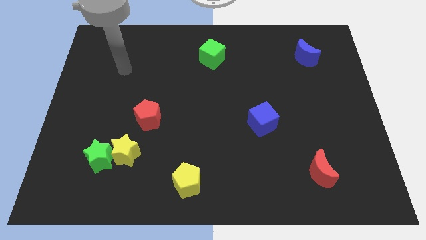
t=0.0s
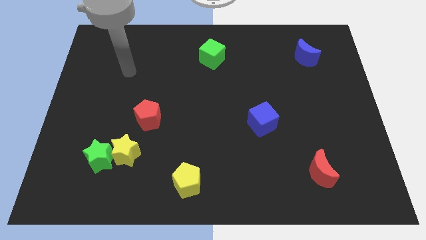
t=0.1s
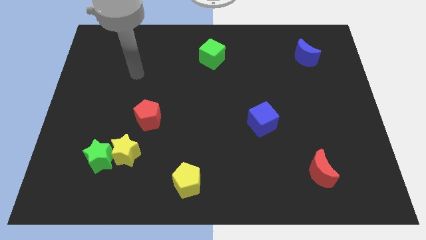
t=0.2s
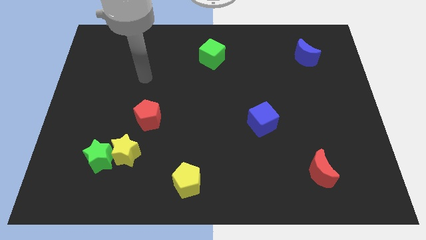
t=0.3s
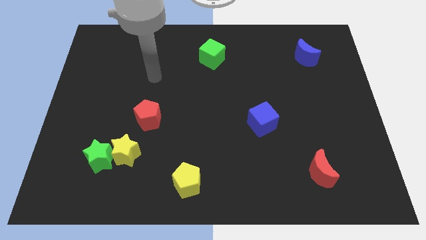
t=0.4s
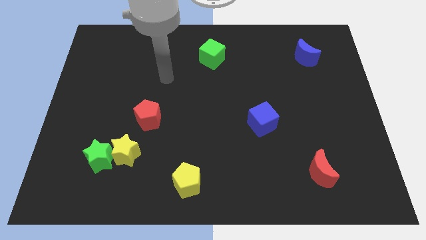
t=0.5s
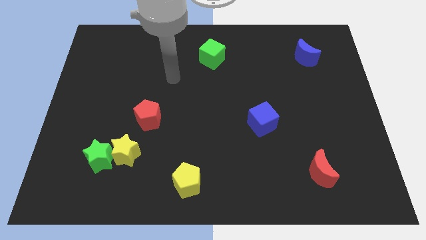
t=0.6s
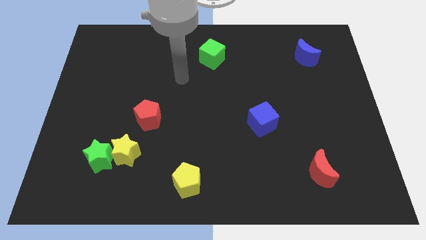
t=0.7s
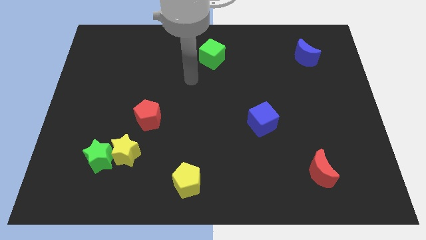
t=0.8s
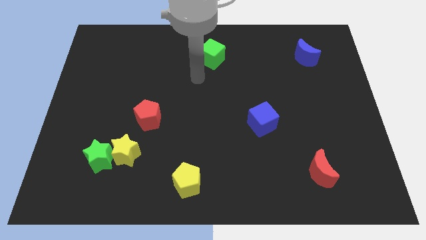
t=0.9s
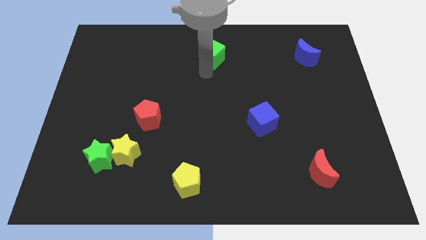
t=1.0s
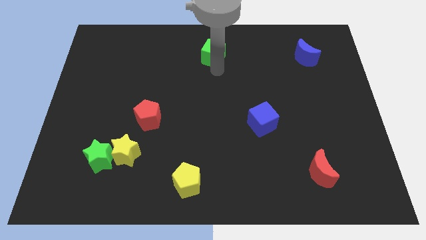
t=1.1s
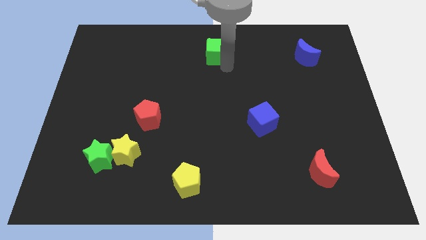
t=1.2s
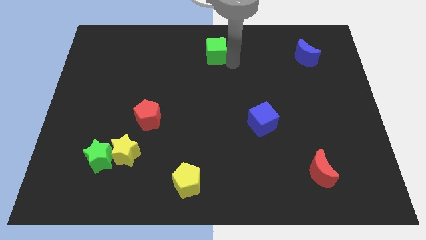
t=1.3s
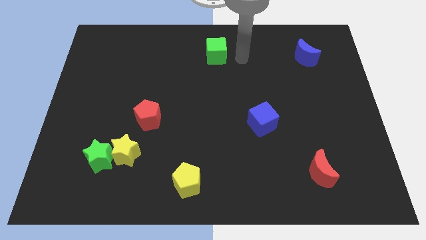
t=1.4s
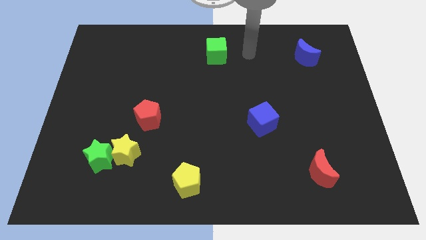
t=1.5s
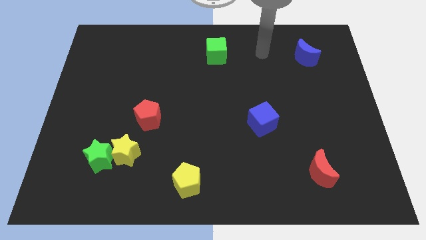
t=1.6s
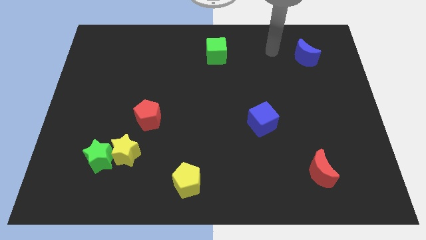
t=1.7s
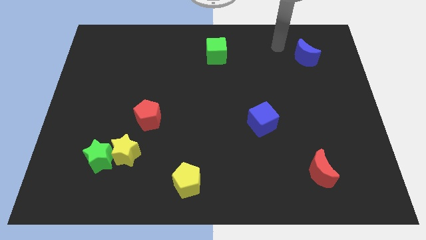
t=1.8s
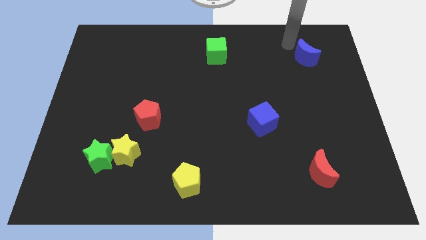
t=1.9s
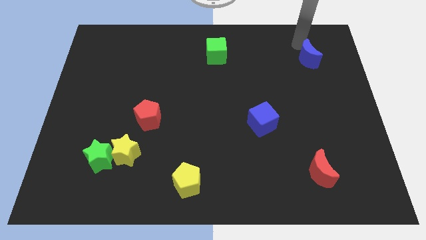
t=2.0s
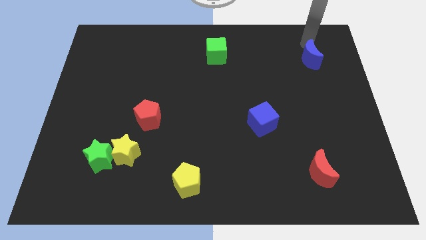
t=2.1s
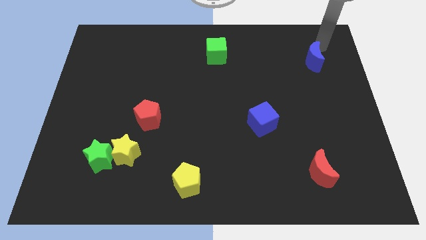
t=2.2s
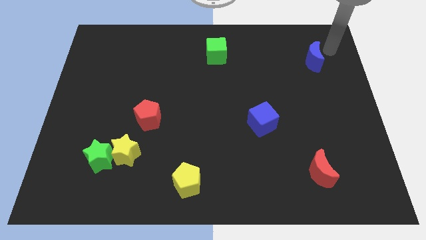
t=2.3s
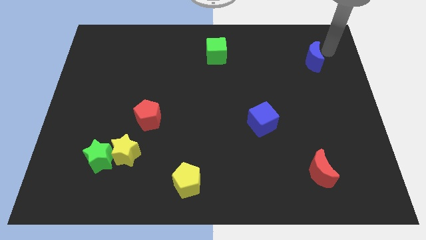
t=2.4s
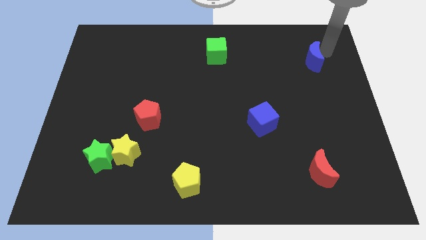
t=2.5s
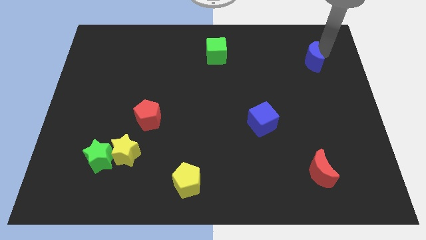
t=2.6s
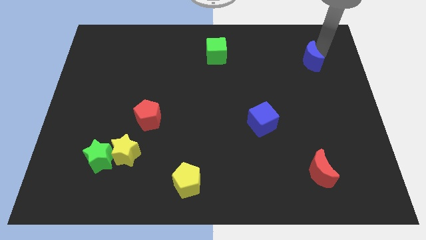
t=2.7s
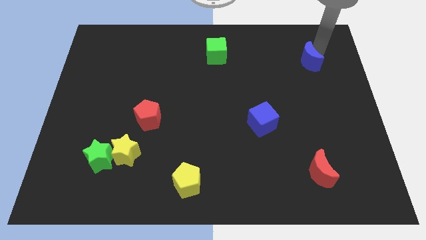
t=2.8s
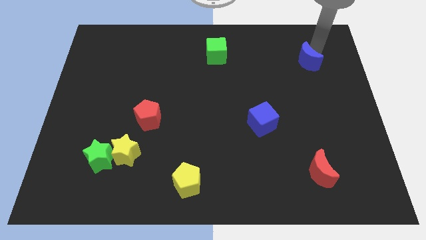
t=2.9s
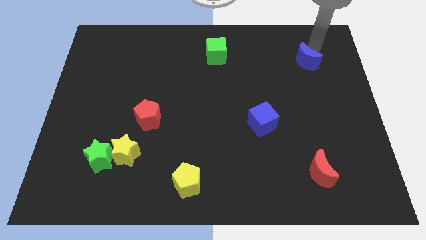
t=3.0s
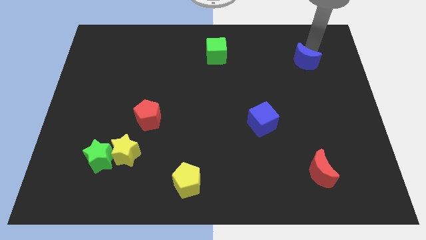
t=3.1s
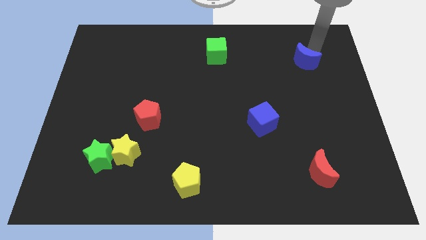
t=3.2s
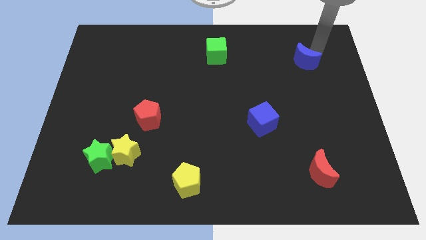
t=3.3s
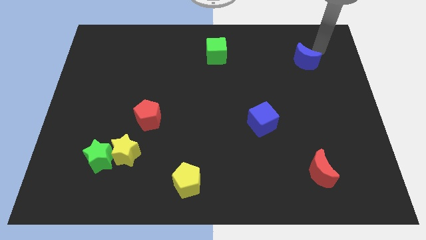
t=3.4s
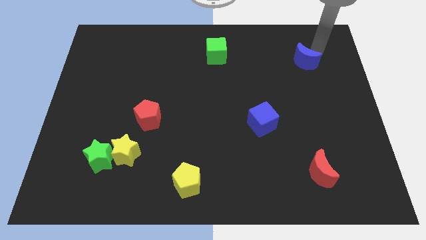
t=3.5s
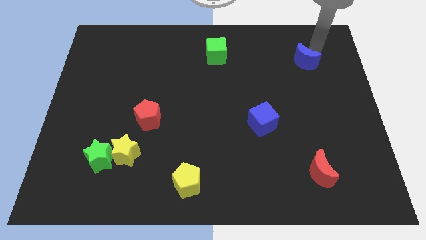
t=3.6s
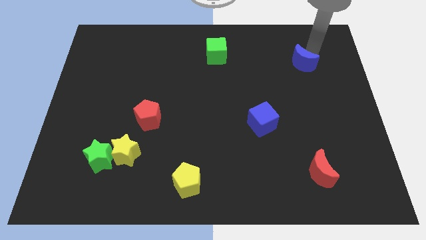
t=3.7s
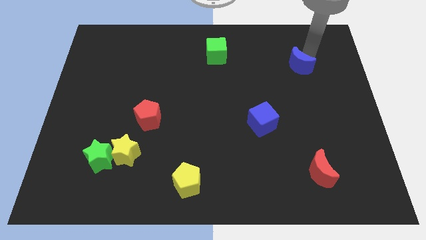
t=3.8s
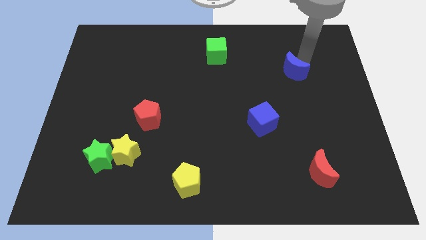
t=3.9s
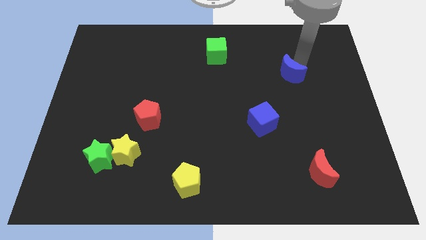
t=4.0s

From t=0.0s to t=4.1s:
move the blue moon diagonally down and left a little

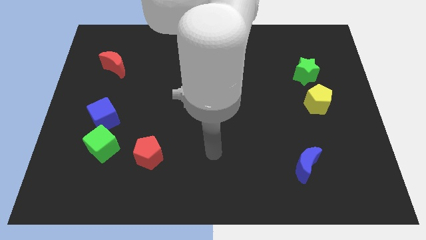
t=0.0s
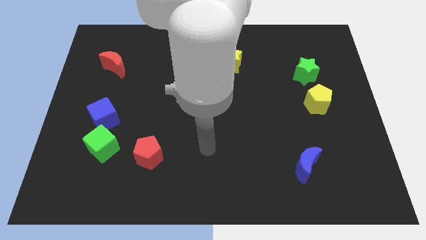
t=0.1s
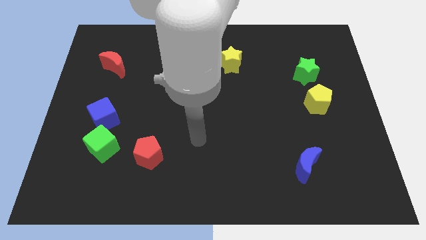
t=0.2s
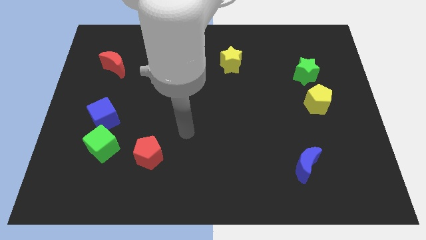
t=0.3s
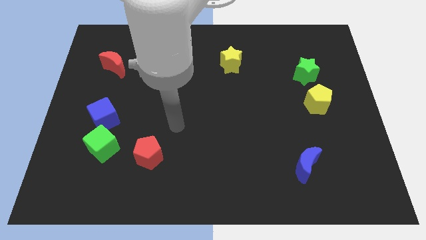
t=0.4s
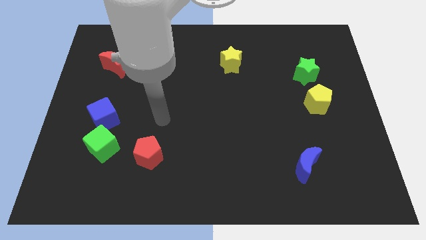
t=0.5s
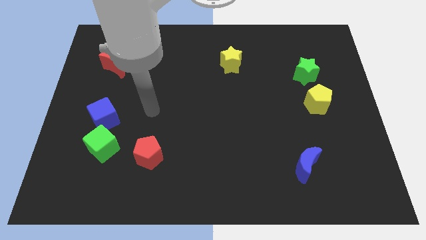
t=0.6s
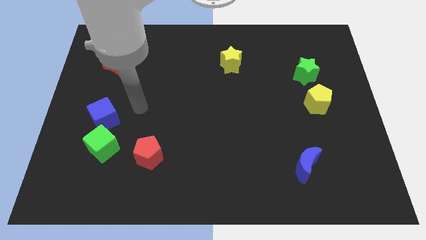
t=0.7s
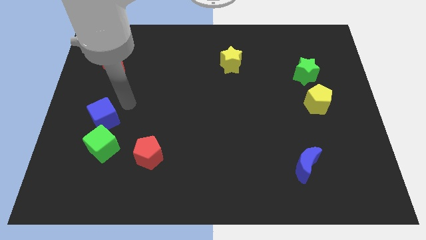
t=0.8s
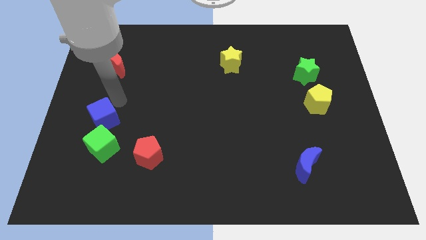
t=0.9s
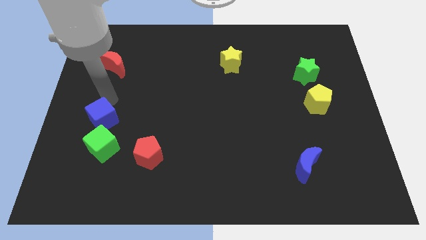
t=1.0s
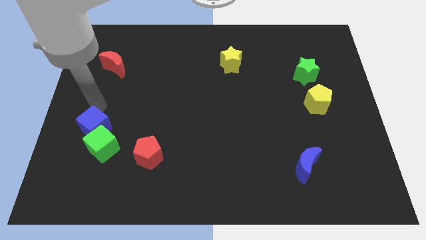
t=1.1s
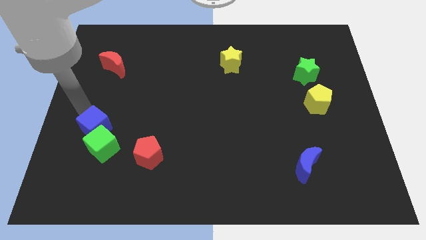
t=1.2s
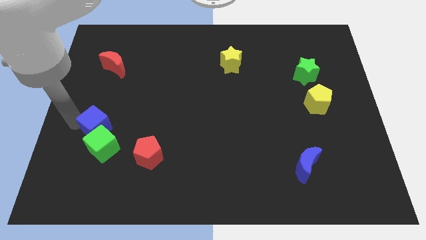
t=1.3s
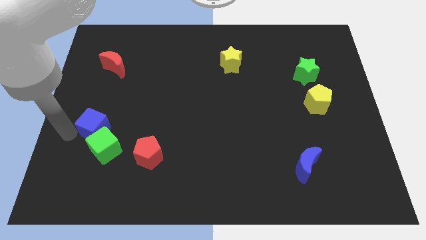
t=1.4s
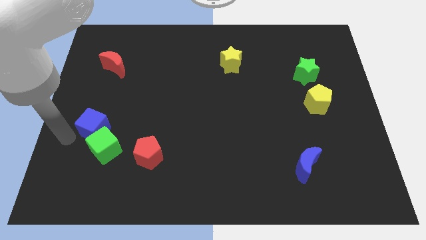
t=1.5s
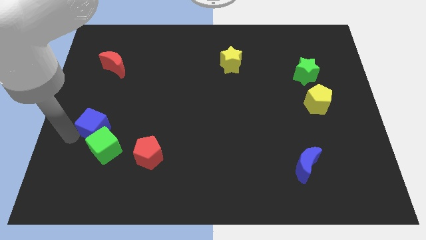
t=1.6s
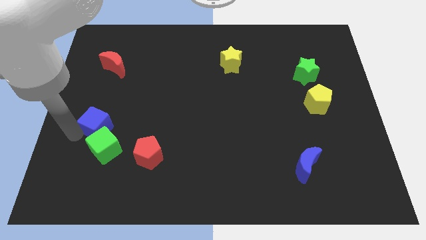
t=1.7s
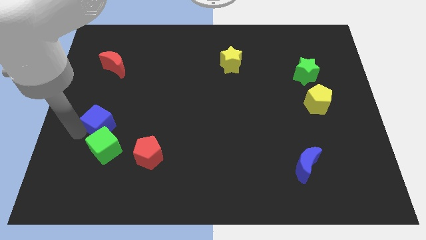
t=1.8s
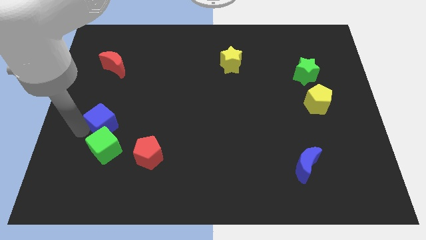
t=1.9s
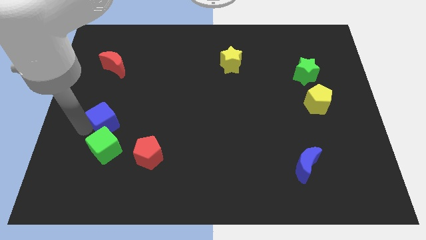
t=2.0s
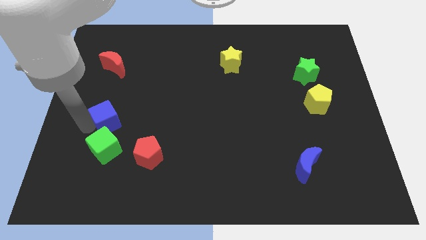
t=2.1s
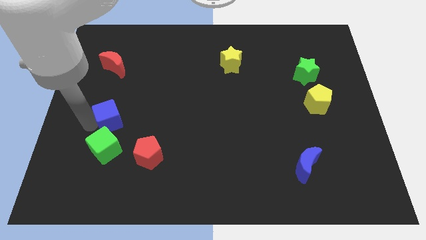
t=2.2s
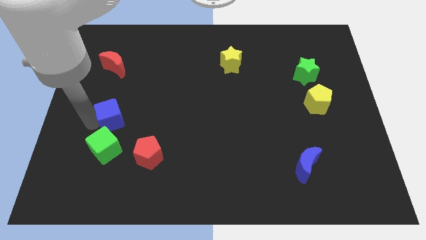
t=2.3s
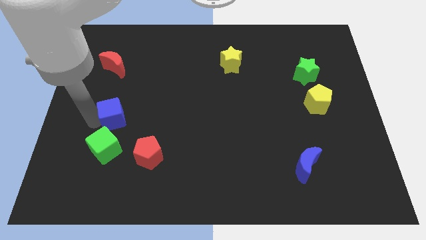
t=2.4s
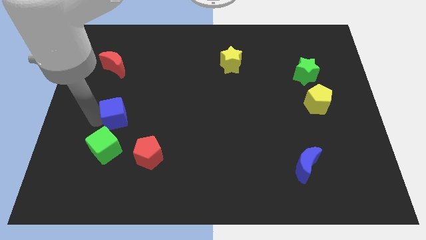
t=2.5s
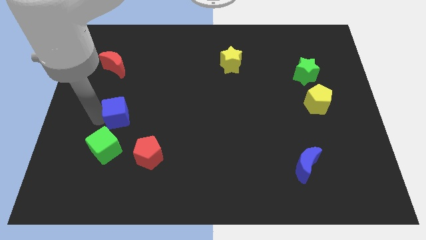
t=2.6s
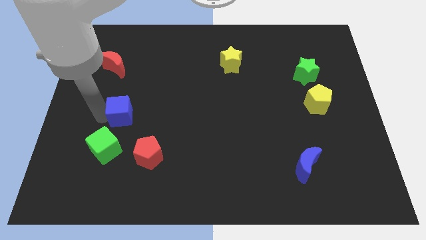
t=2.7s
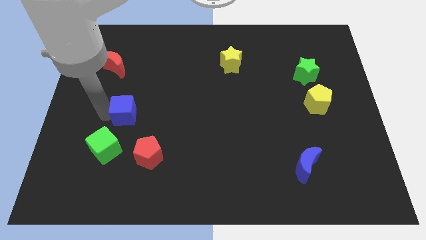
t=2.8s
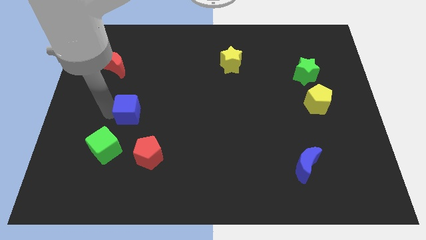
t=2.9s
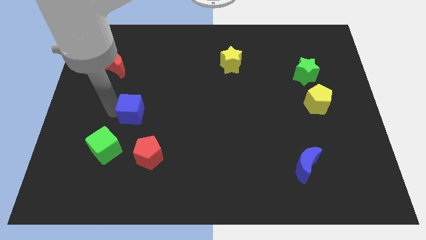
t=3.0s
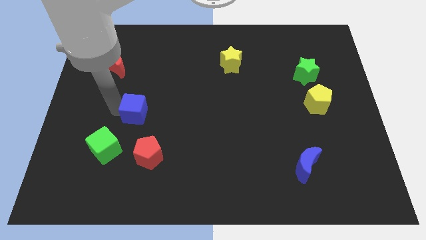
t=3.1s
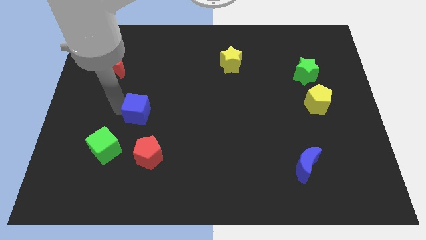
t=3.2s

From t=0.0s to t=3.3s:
slightly move the blue cube right

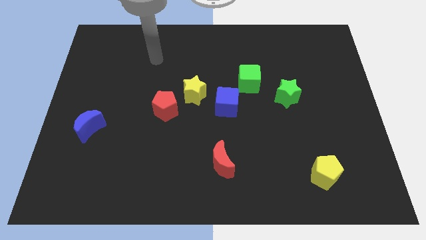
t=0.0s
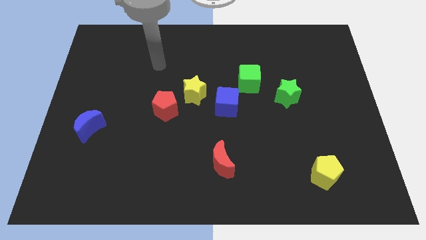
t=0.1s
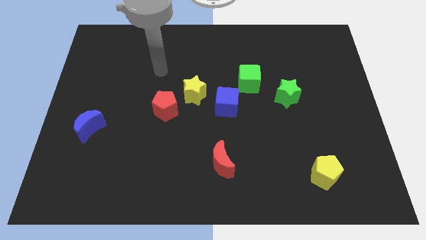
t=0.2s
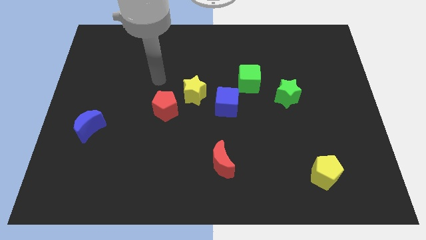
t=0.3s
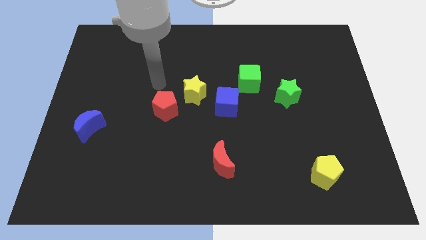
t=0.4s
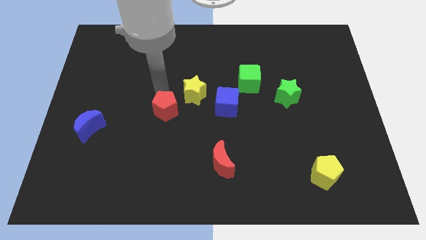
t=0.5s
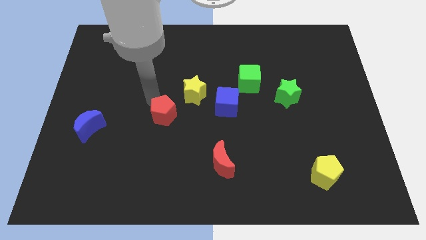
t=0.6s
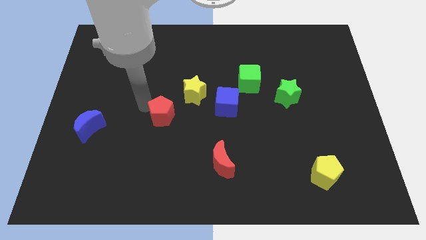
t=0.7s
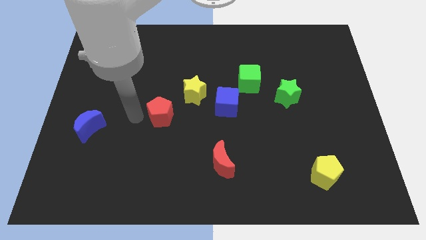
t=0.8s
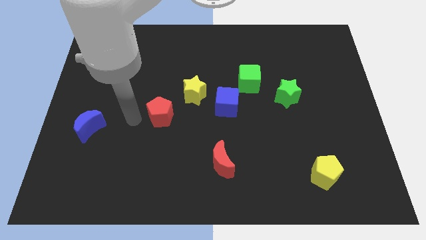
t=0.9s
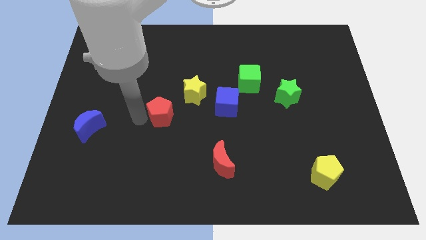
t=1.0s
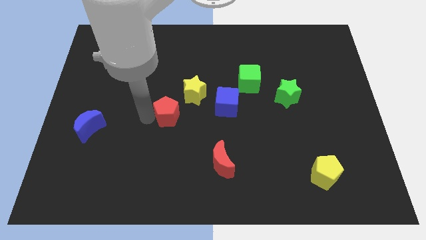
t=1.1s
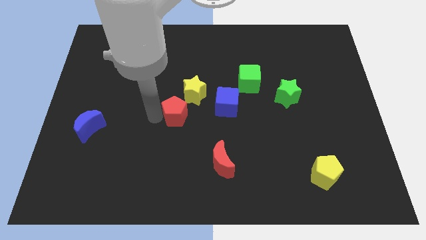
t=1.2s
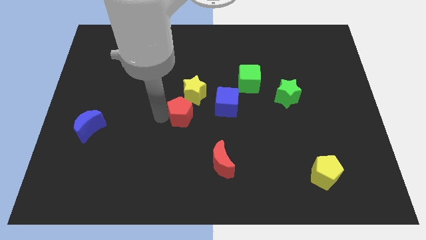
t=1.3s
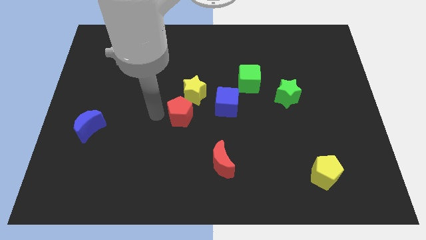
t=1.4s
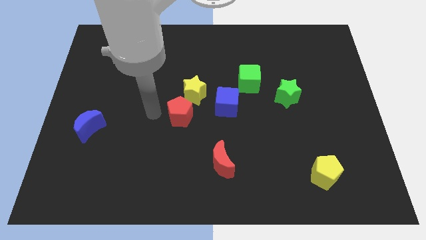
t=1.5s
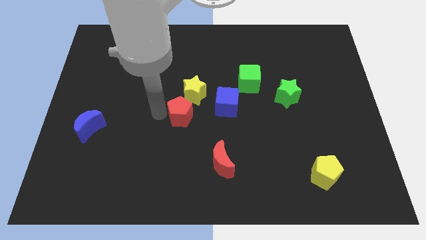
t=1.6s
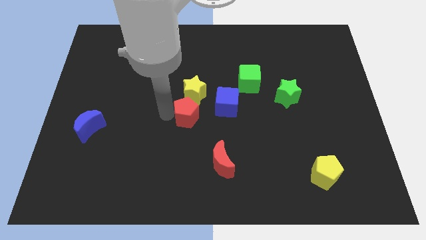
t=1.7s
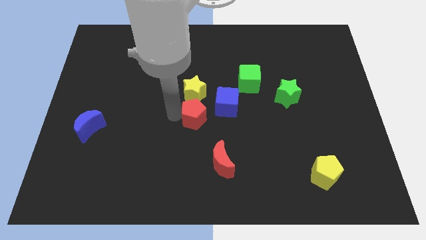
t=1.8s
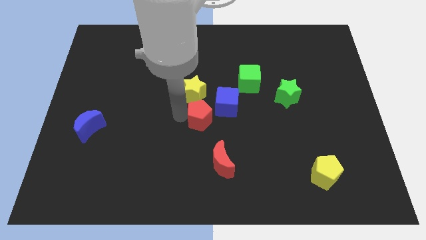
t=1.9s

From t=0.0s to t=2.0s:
push the red pentagon to the right a little
